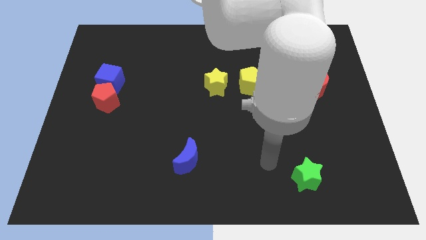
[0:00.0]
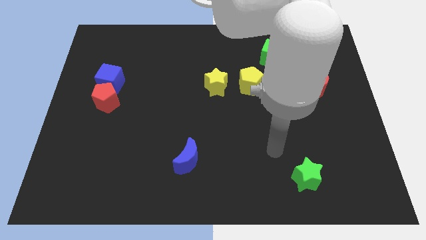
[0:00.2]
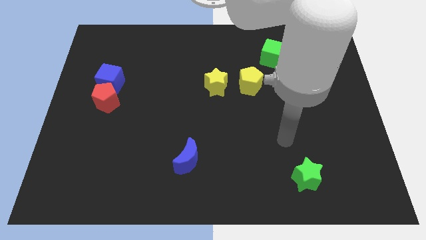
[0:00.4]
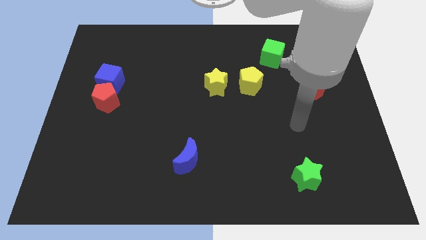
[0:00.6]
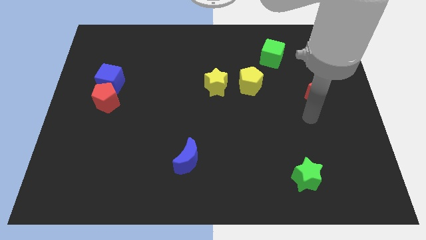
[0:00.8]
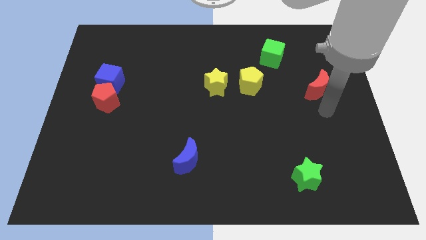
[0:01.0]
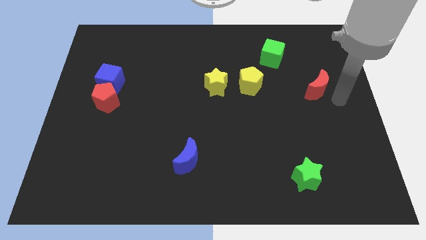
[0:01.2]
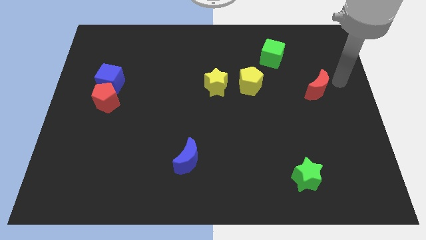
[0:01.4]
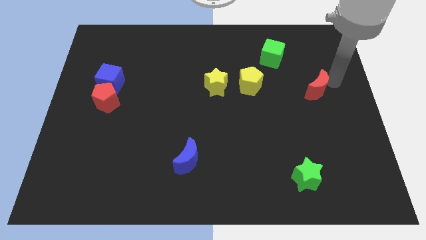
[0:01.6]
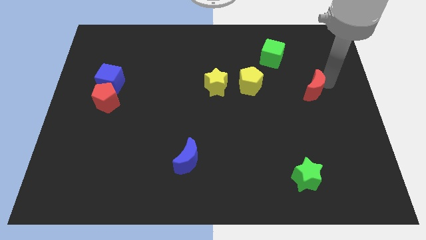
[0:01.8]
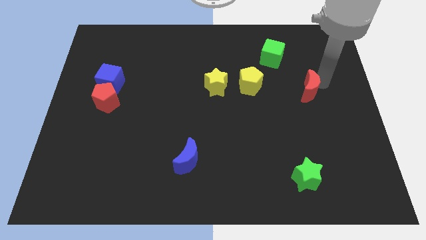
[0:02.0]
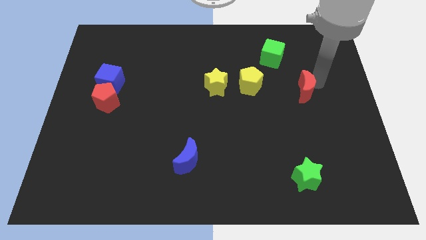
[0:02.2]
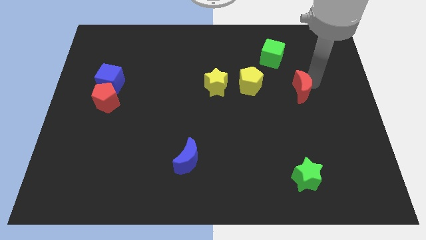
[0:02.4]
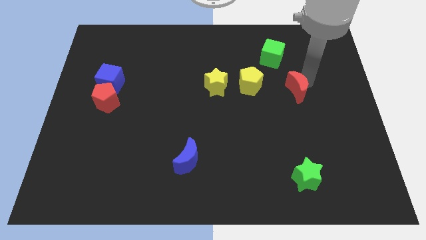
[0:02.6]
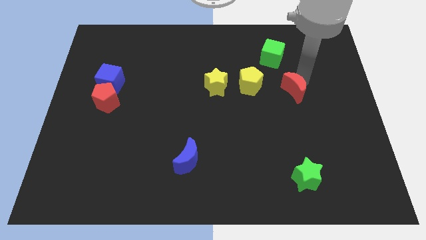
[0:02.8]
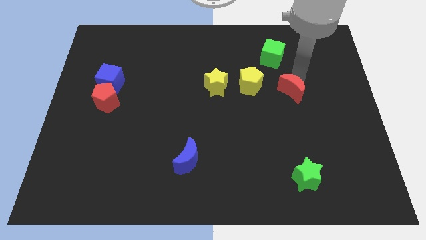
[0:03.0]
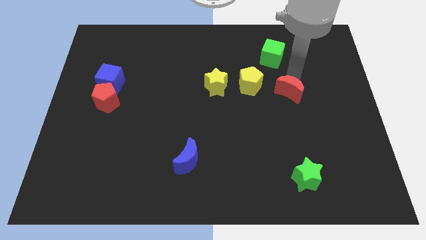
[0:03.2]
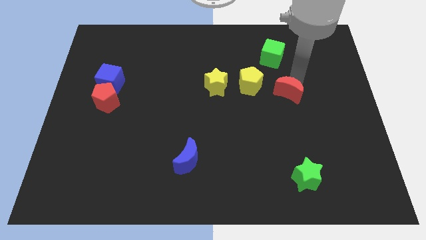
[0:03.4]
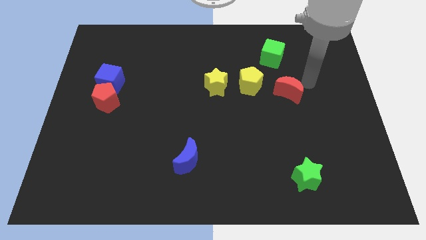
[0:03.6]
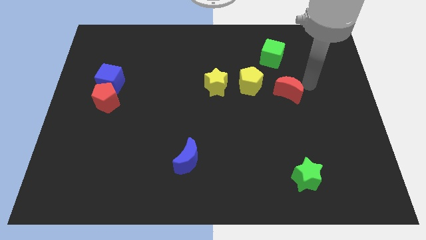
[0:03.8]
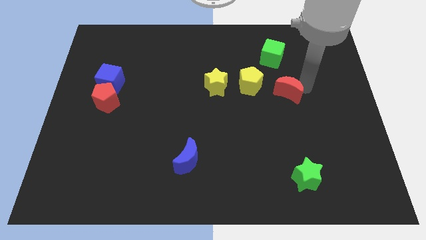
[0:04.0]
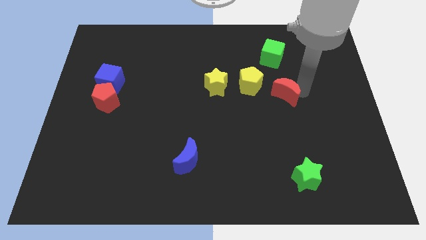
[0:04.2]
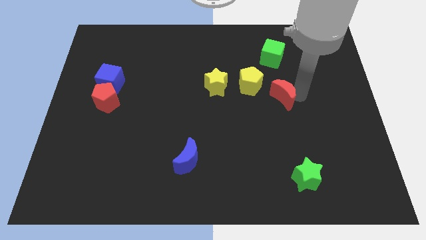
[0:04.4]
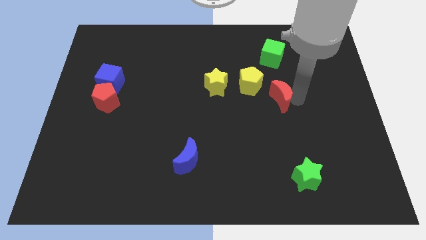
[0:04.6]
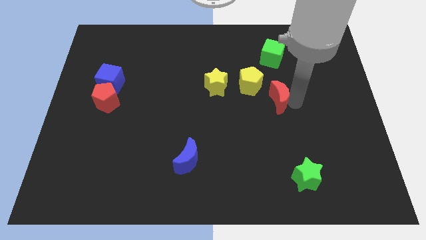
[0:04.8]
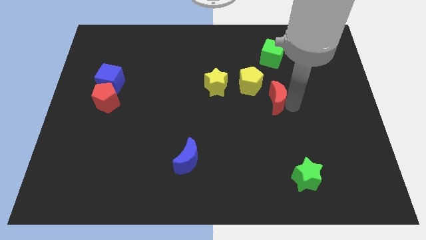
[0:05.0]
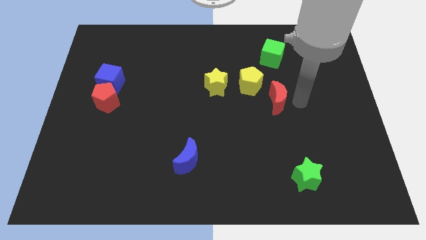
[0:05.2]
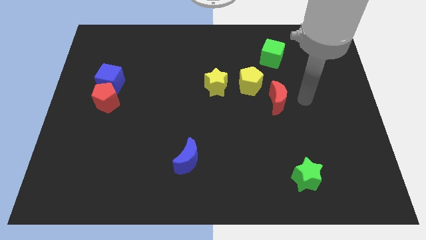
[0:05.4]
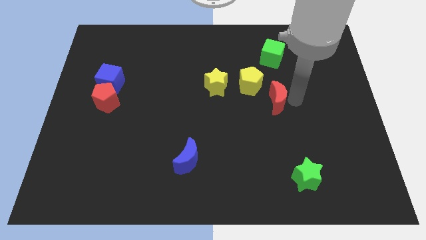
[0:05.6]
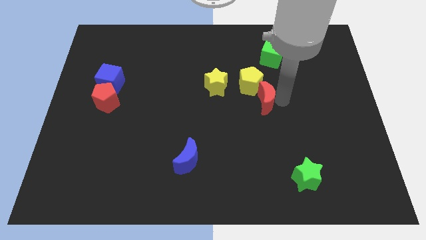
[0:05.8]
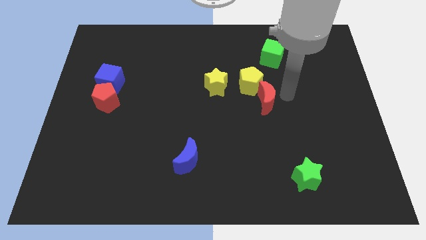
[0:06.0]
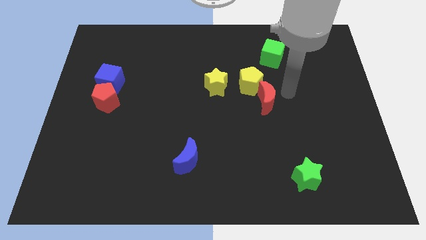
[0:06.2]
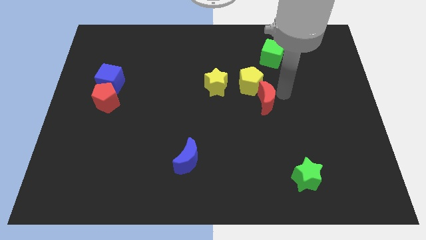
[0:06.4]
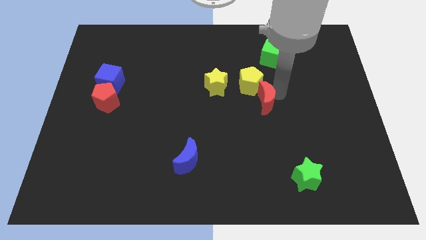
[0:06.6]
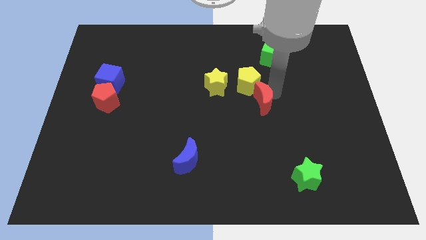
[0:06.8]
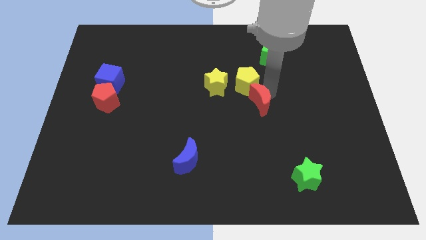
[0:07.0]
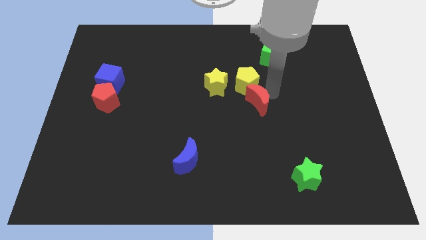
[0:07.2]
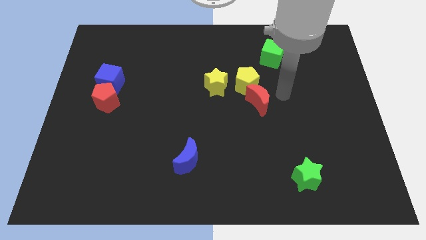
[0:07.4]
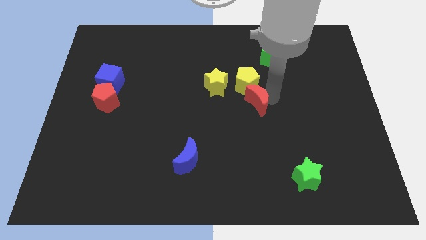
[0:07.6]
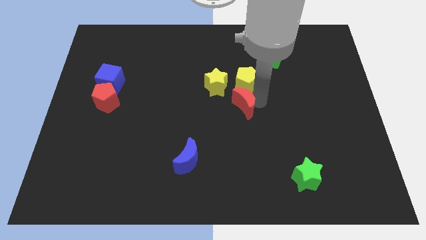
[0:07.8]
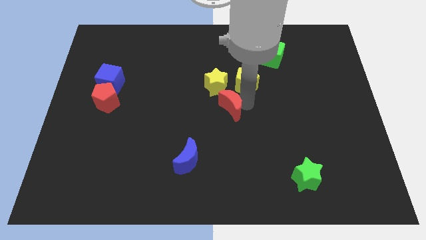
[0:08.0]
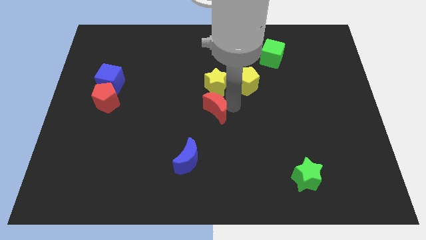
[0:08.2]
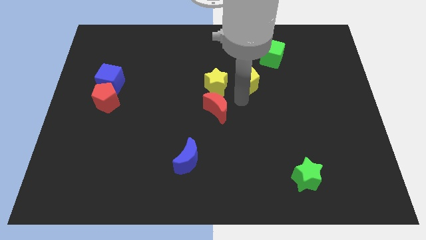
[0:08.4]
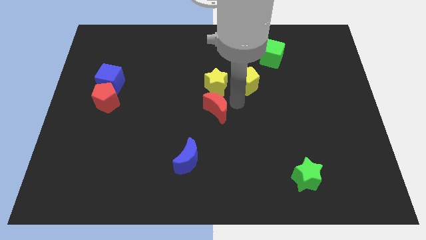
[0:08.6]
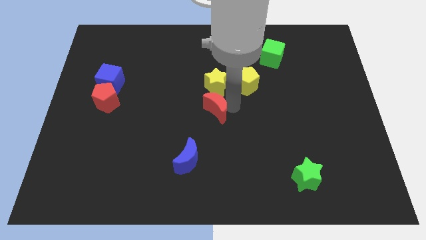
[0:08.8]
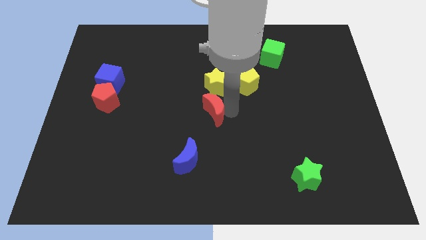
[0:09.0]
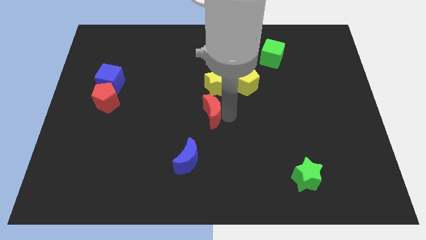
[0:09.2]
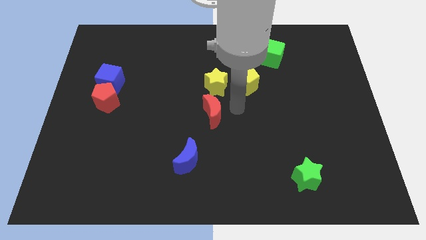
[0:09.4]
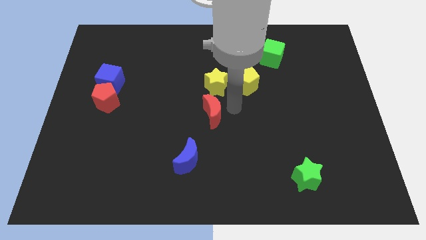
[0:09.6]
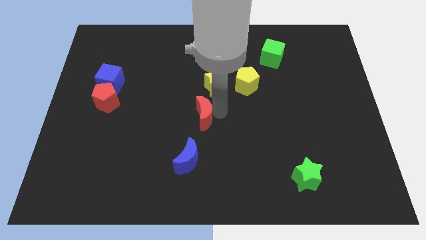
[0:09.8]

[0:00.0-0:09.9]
push the red moon to the top side of the blue moon

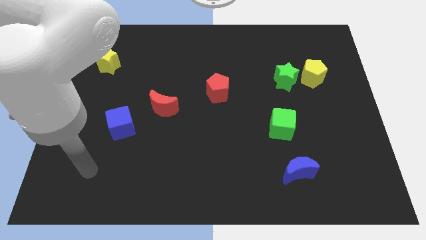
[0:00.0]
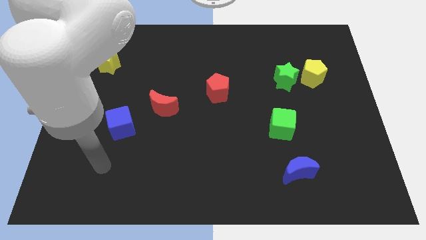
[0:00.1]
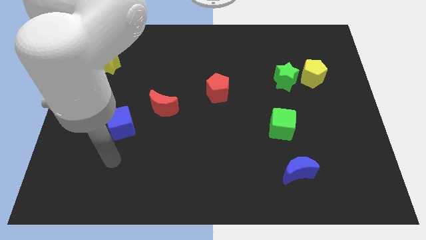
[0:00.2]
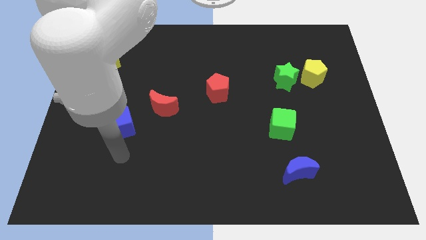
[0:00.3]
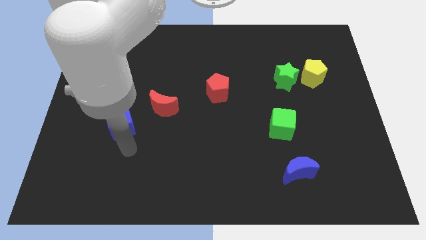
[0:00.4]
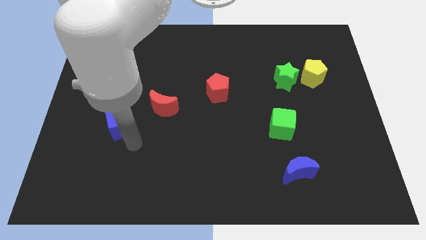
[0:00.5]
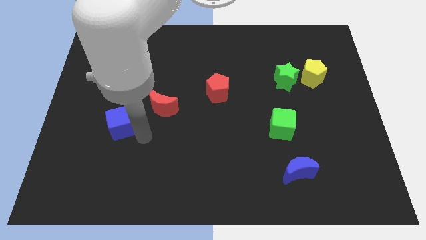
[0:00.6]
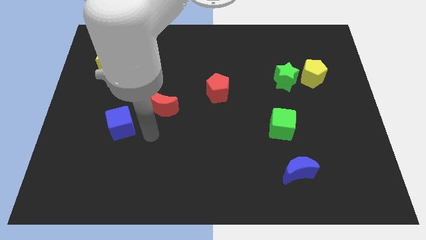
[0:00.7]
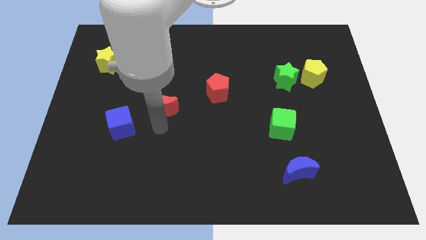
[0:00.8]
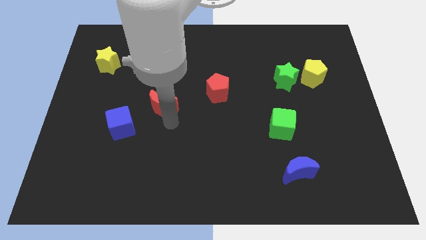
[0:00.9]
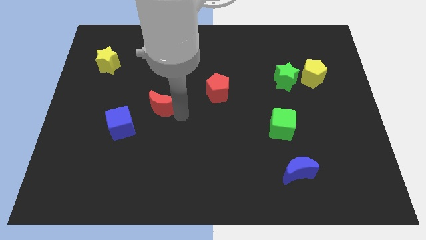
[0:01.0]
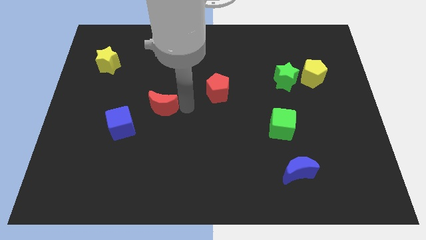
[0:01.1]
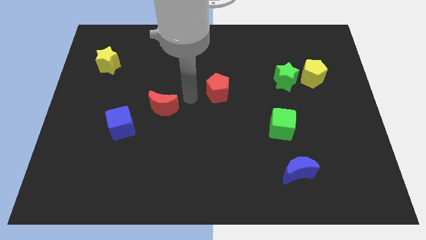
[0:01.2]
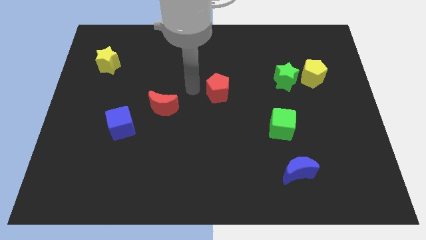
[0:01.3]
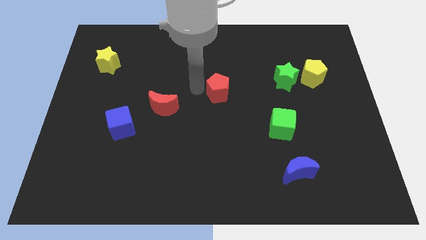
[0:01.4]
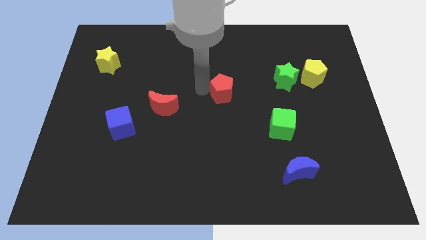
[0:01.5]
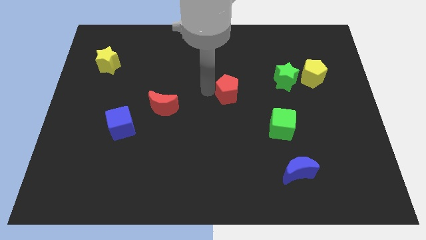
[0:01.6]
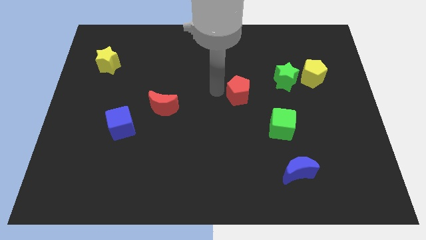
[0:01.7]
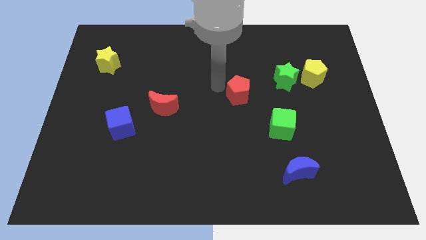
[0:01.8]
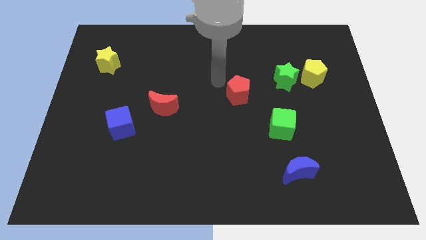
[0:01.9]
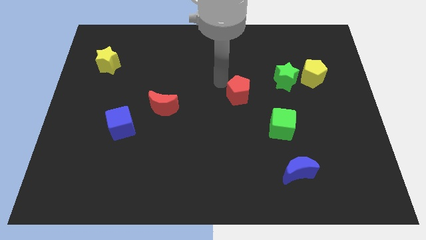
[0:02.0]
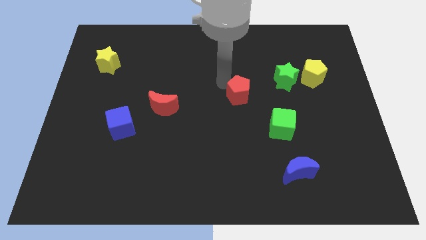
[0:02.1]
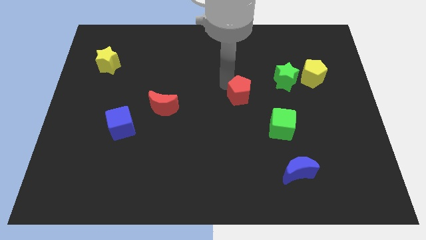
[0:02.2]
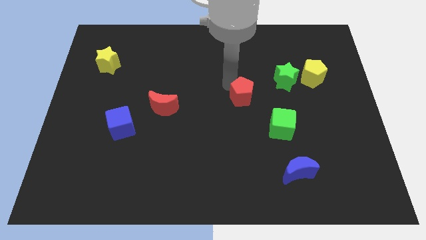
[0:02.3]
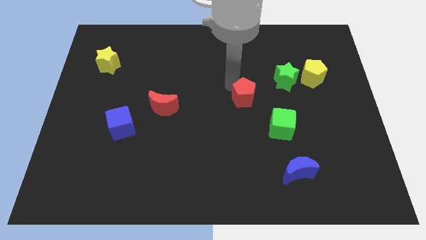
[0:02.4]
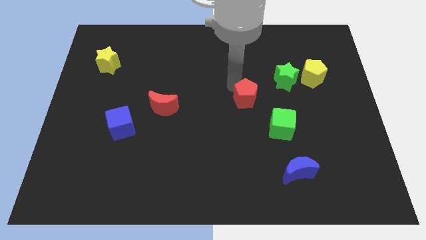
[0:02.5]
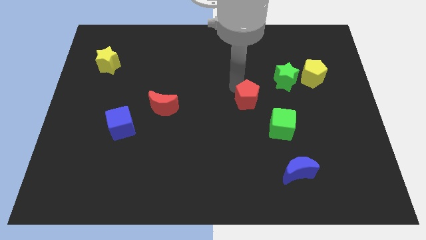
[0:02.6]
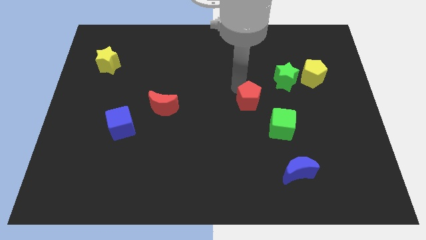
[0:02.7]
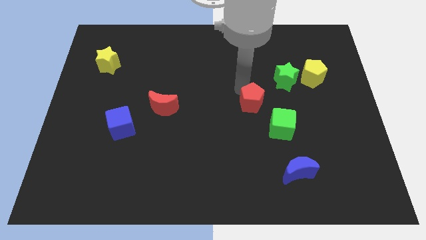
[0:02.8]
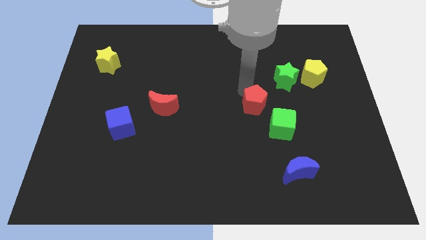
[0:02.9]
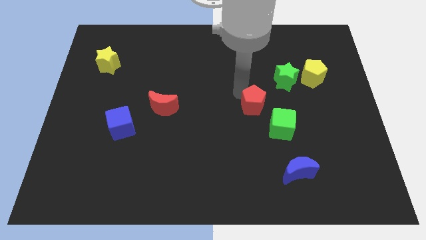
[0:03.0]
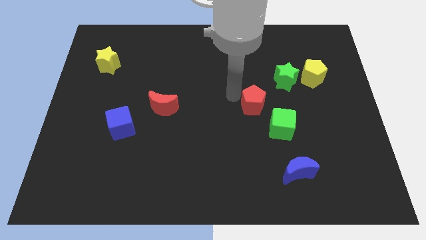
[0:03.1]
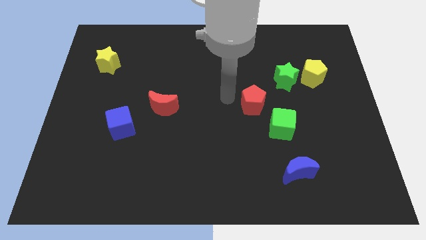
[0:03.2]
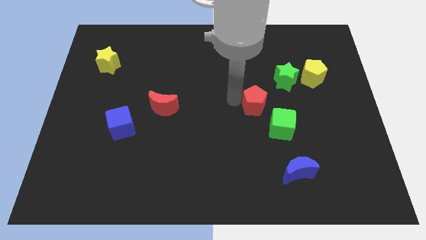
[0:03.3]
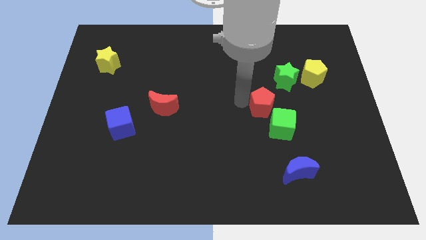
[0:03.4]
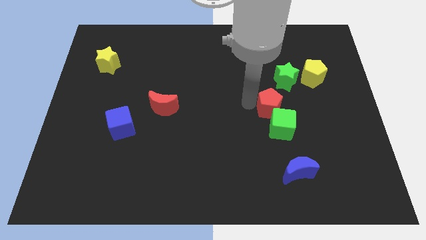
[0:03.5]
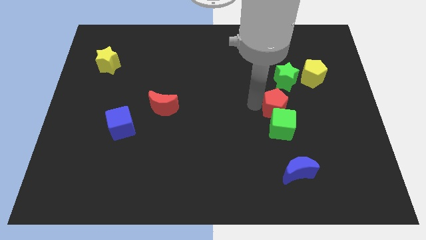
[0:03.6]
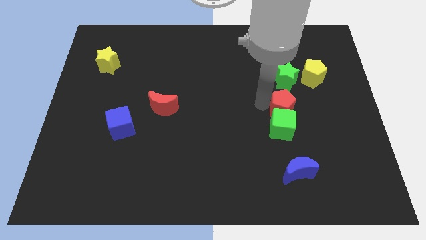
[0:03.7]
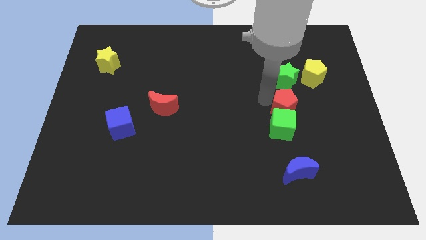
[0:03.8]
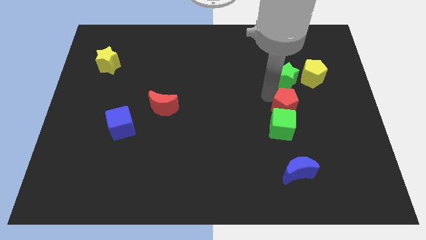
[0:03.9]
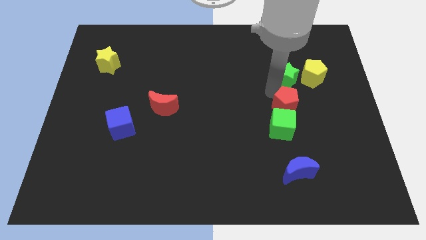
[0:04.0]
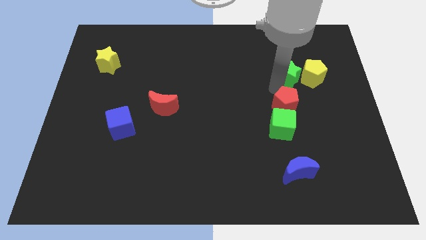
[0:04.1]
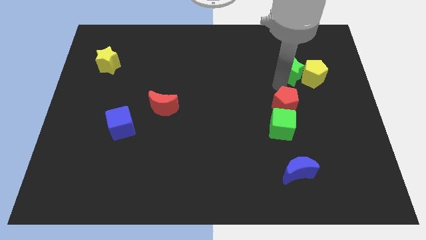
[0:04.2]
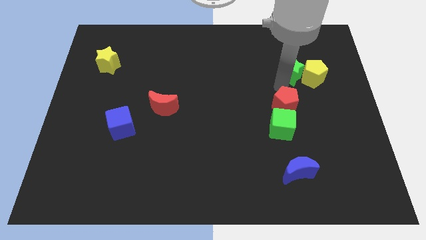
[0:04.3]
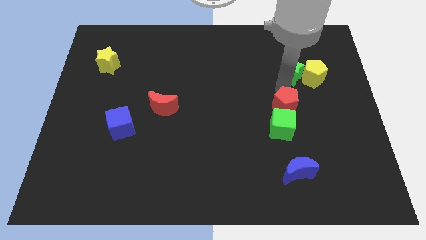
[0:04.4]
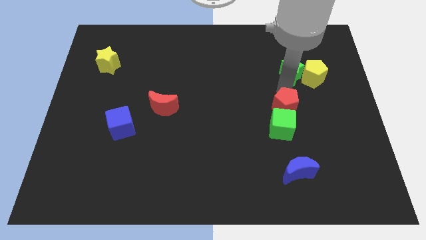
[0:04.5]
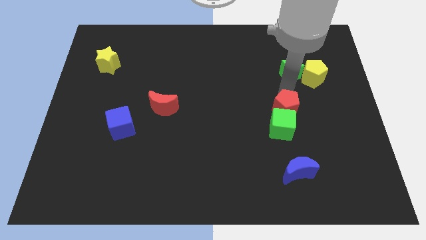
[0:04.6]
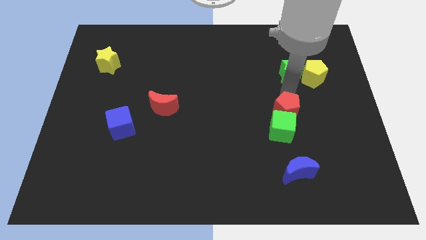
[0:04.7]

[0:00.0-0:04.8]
move the red pentagon to the top of the blue moon
